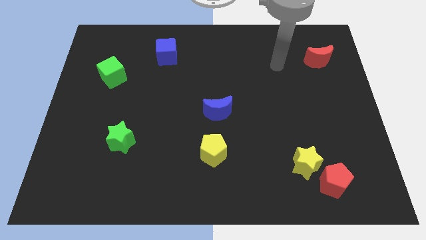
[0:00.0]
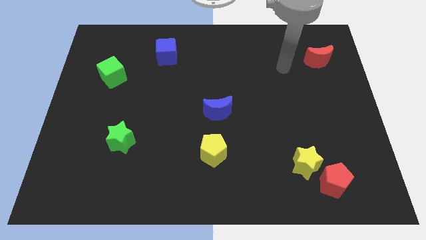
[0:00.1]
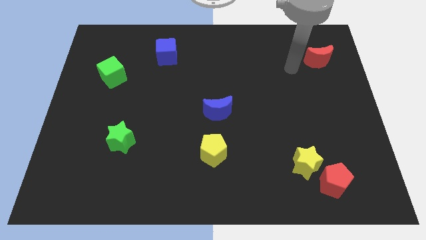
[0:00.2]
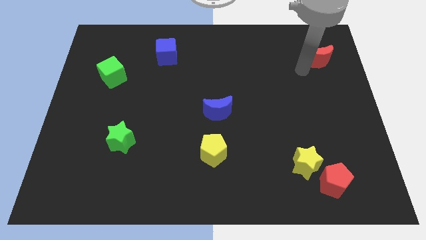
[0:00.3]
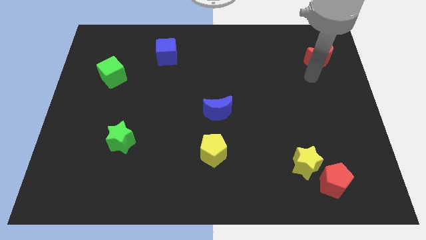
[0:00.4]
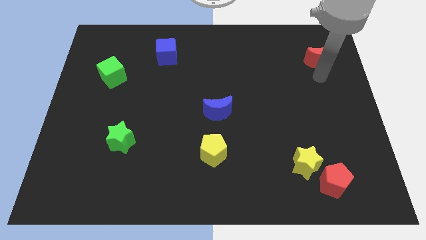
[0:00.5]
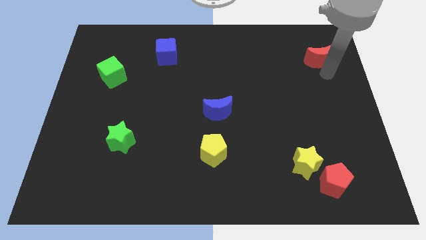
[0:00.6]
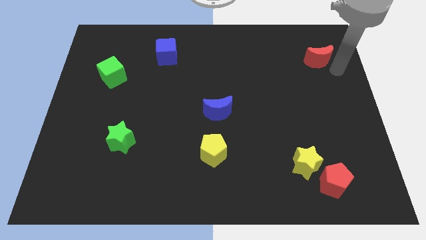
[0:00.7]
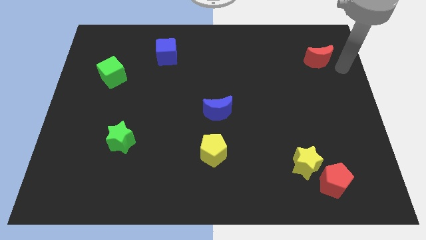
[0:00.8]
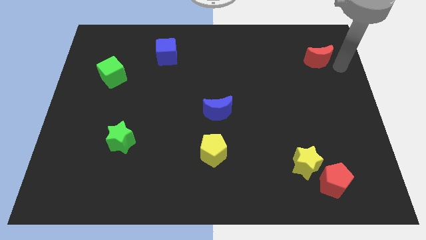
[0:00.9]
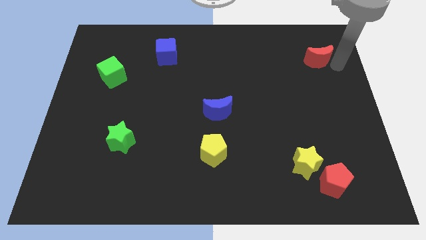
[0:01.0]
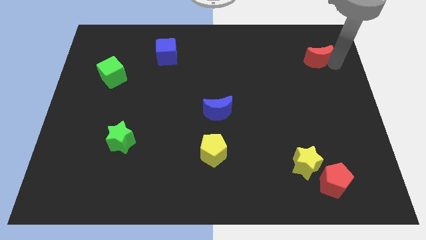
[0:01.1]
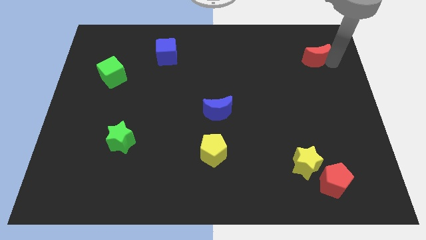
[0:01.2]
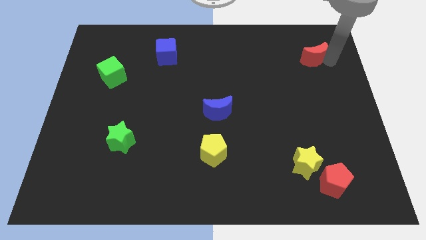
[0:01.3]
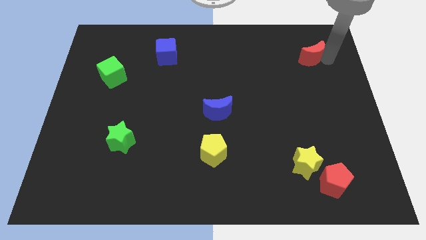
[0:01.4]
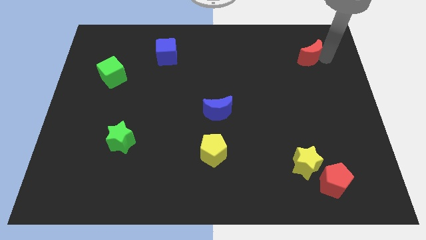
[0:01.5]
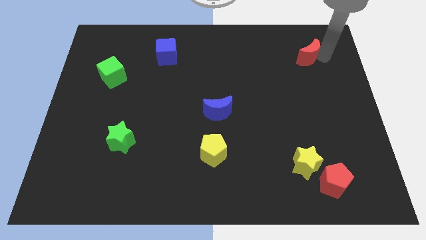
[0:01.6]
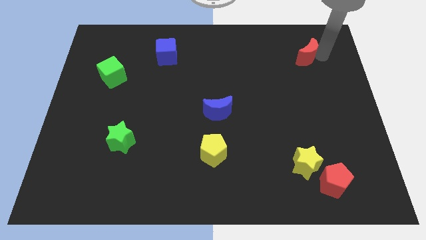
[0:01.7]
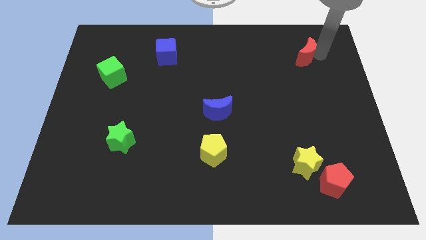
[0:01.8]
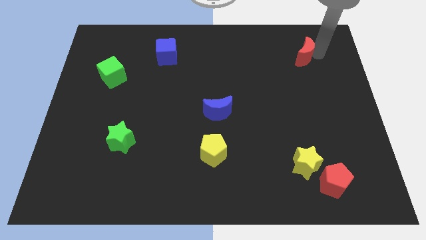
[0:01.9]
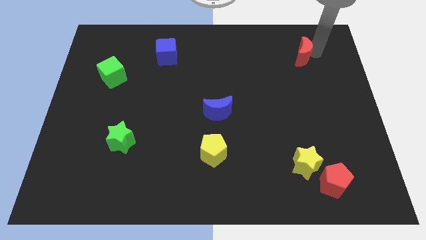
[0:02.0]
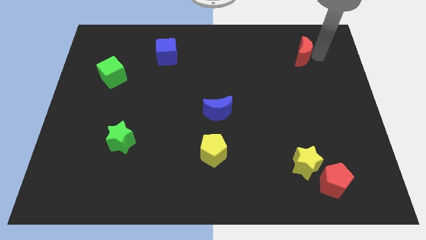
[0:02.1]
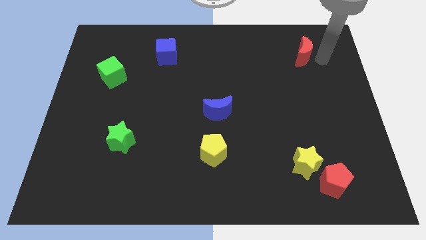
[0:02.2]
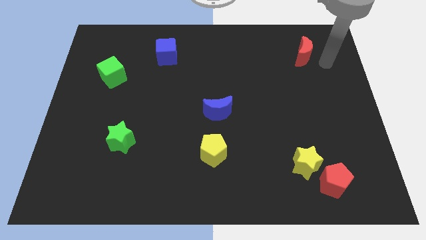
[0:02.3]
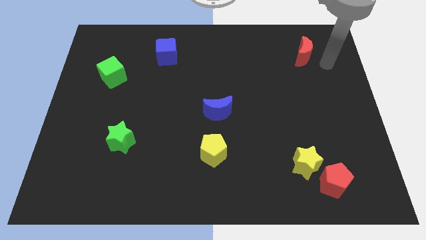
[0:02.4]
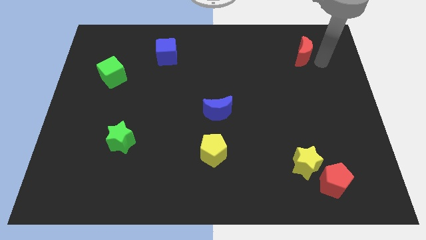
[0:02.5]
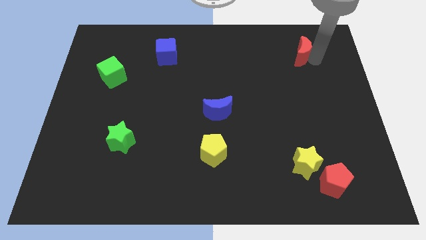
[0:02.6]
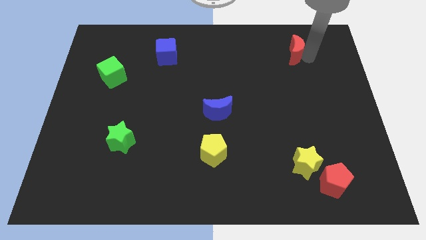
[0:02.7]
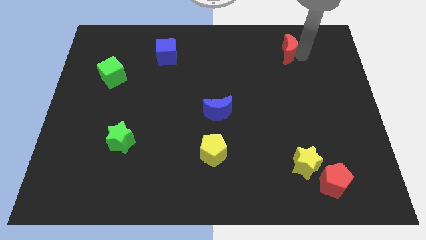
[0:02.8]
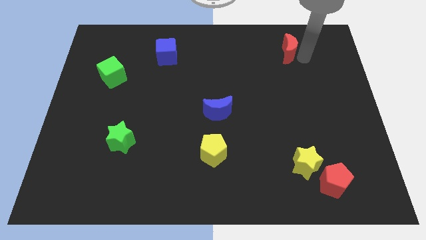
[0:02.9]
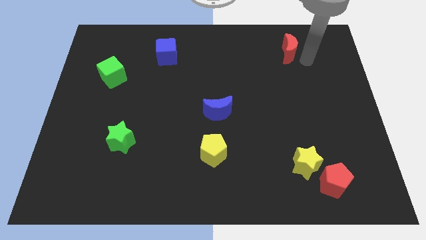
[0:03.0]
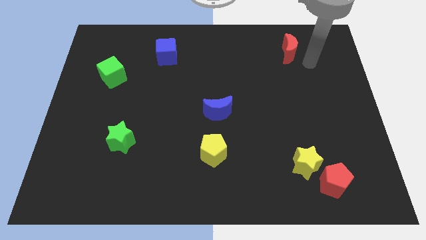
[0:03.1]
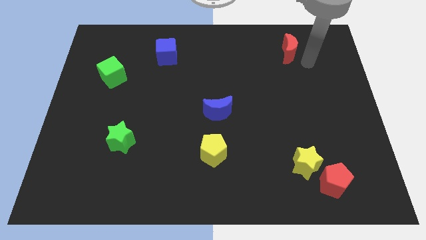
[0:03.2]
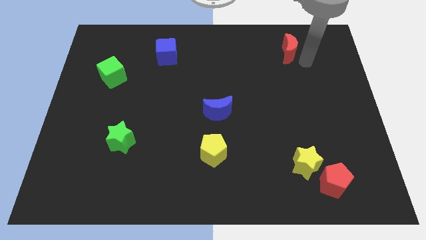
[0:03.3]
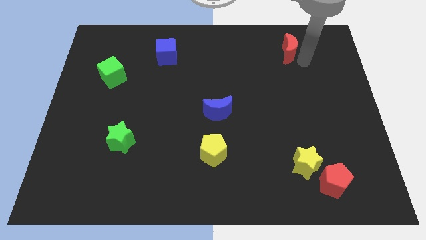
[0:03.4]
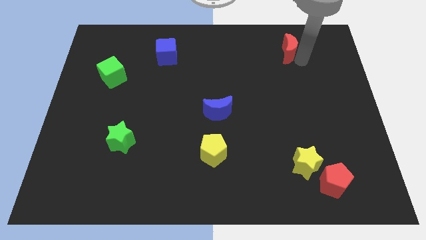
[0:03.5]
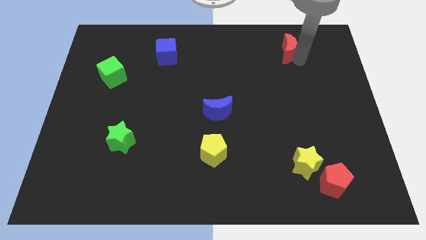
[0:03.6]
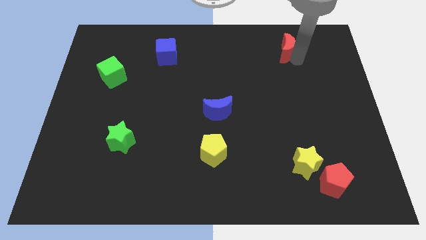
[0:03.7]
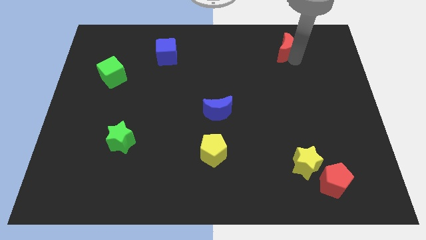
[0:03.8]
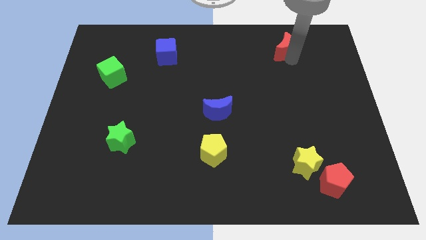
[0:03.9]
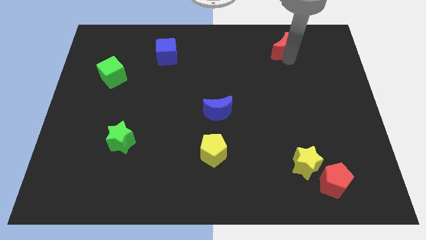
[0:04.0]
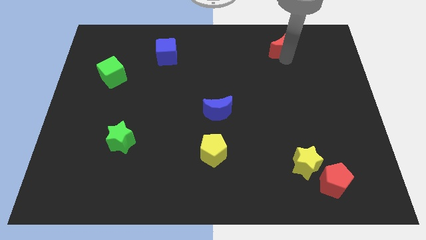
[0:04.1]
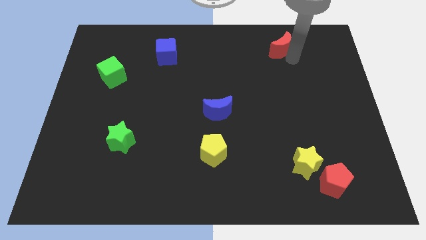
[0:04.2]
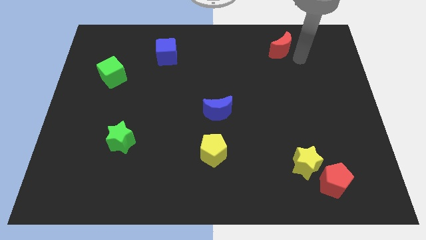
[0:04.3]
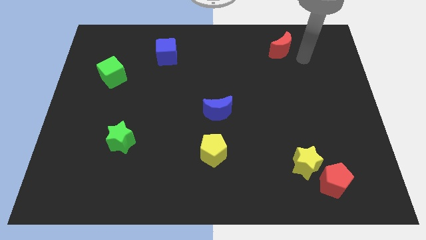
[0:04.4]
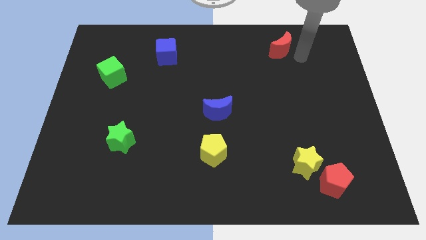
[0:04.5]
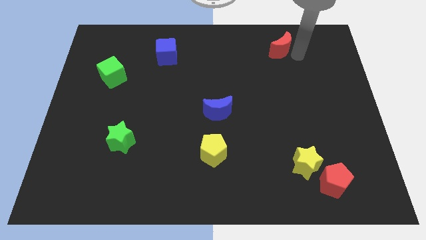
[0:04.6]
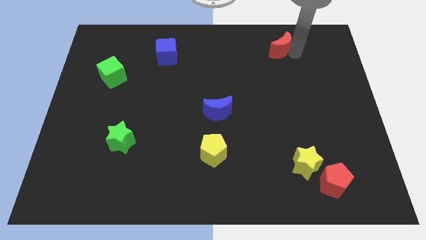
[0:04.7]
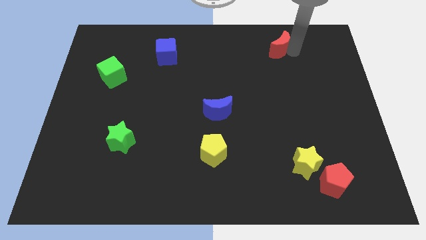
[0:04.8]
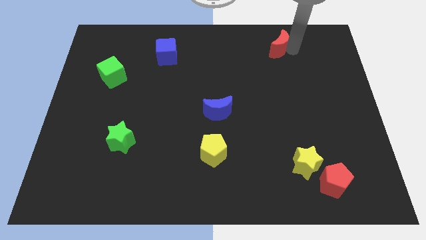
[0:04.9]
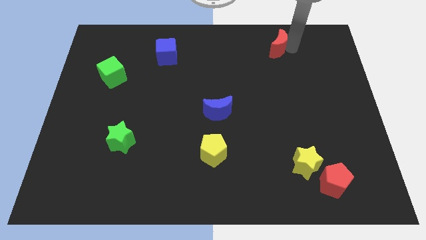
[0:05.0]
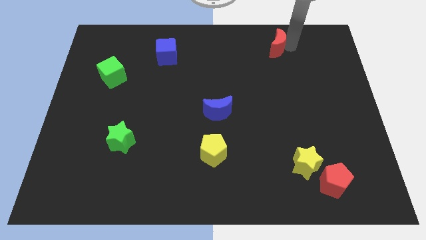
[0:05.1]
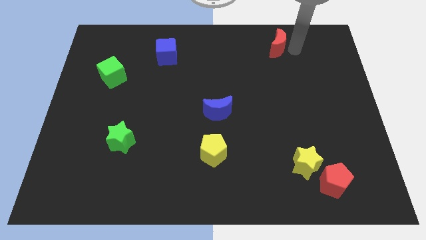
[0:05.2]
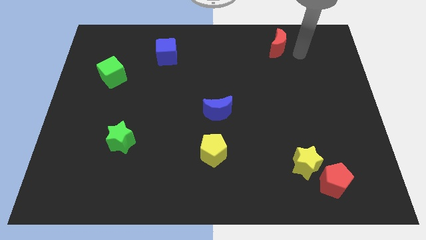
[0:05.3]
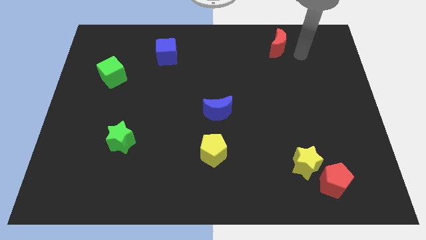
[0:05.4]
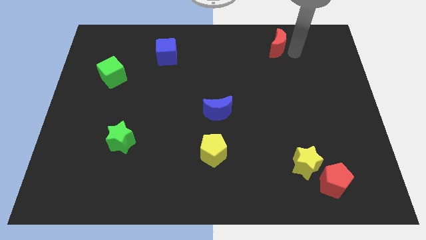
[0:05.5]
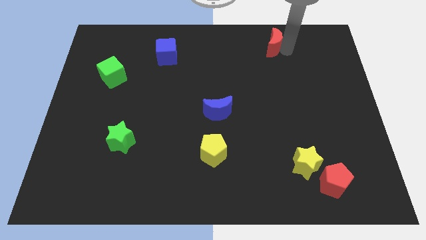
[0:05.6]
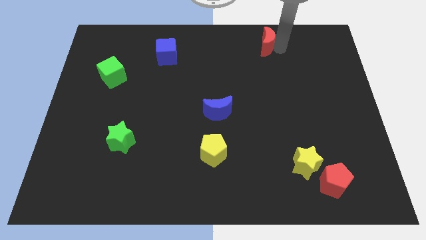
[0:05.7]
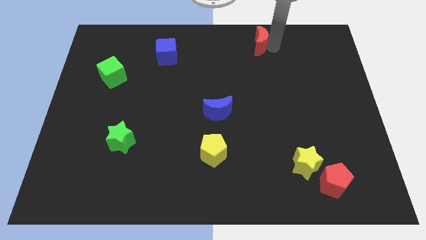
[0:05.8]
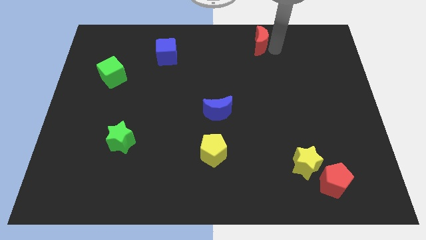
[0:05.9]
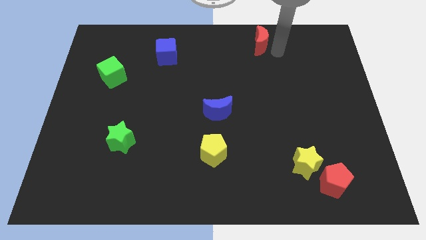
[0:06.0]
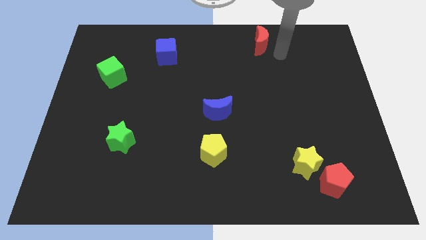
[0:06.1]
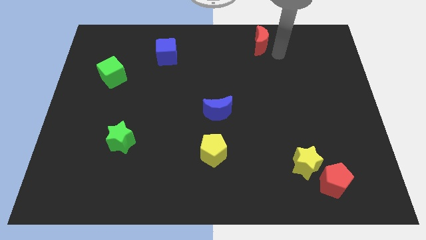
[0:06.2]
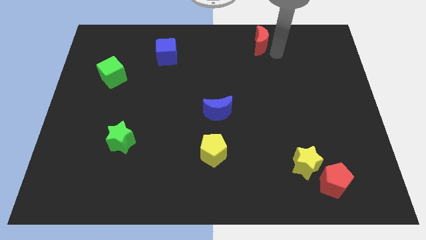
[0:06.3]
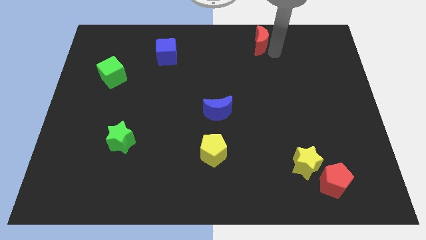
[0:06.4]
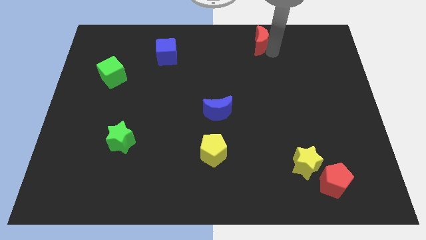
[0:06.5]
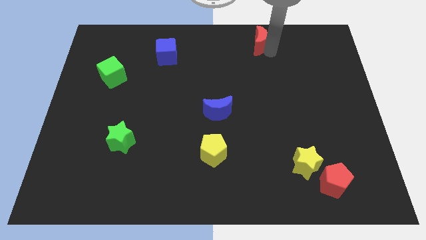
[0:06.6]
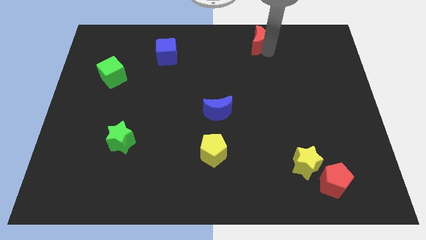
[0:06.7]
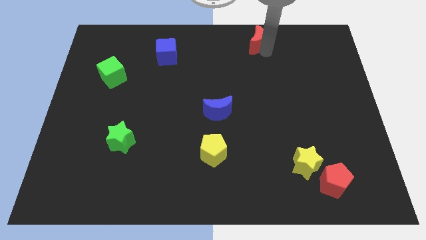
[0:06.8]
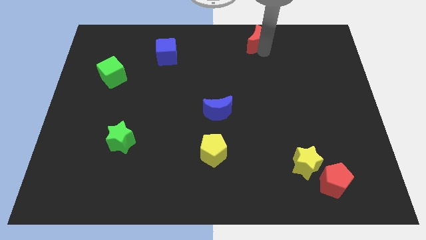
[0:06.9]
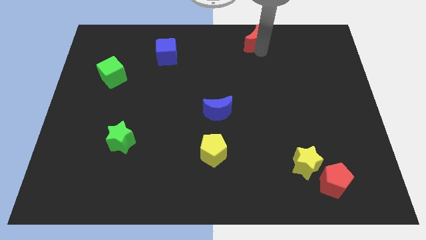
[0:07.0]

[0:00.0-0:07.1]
move the red moon to the top side

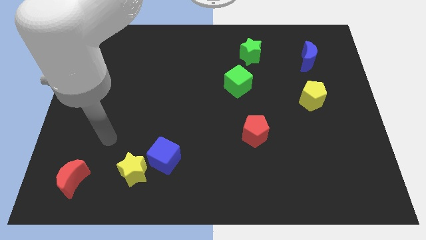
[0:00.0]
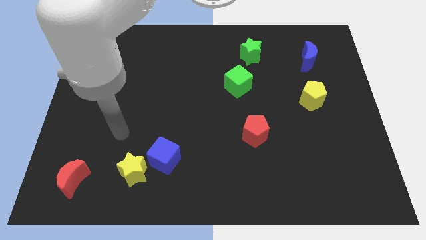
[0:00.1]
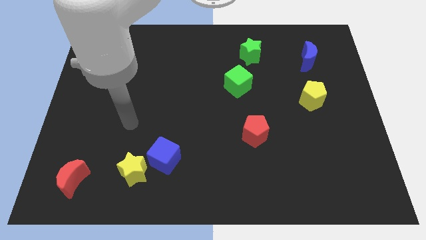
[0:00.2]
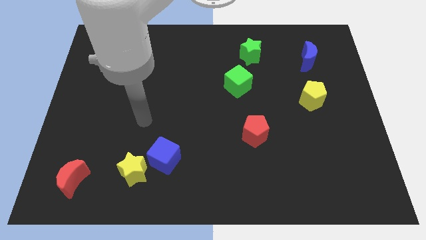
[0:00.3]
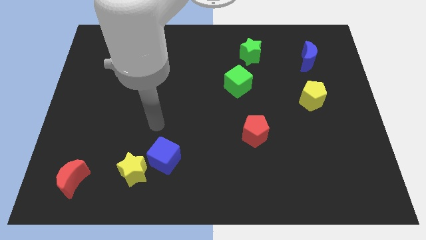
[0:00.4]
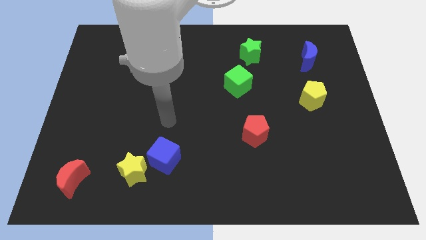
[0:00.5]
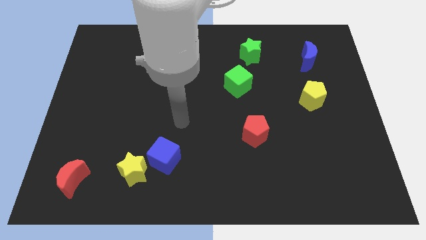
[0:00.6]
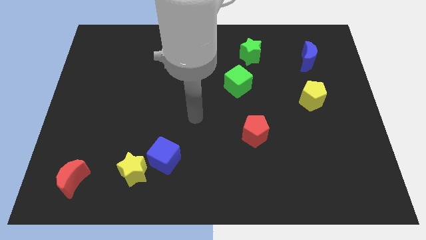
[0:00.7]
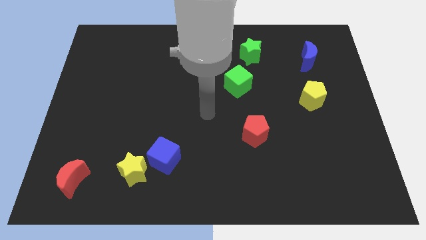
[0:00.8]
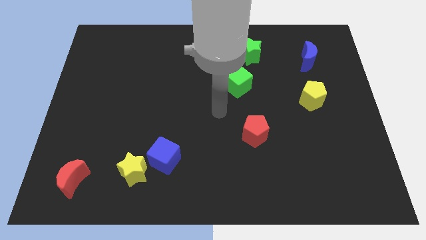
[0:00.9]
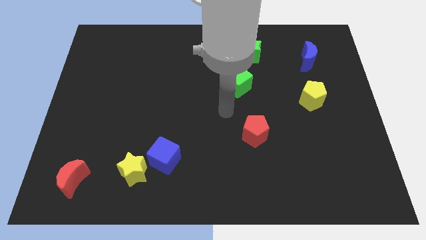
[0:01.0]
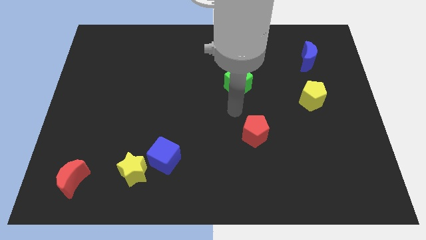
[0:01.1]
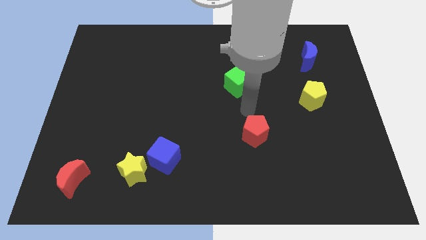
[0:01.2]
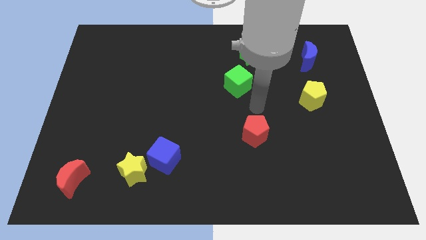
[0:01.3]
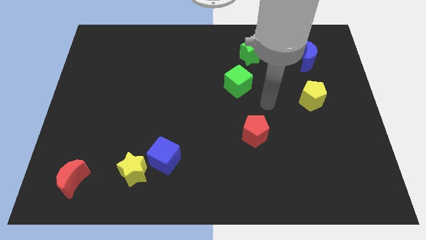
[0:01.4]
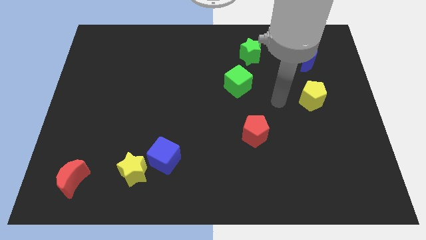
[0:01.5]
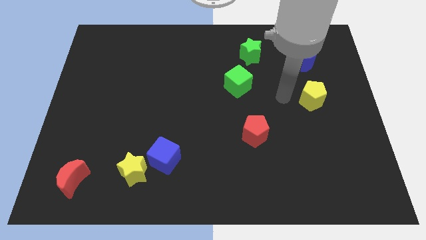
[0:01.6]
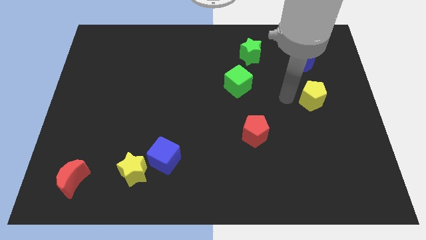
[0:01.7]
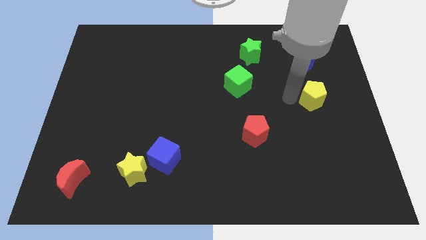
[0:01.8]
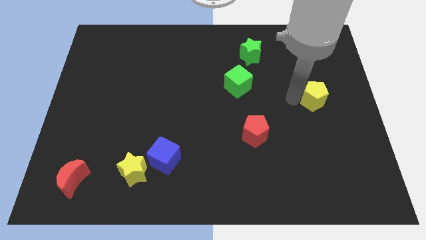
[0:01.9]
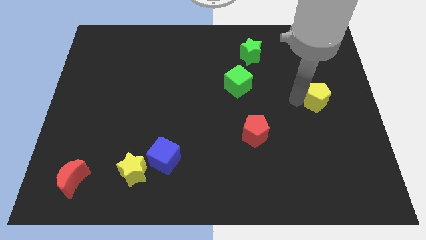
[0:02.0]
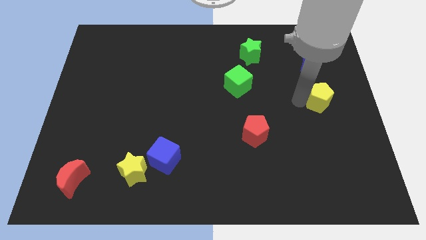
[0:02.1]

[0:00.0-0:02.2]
move the yellow pentagon to the right side
